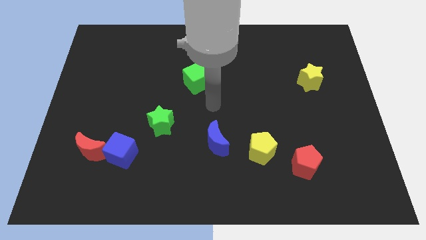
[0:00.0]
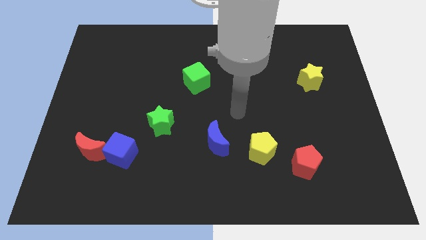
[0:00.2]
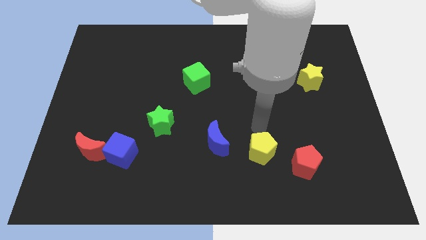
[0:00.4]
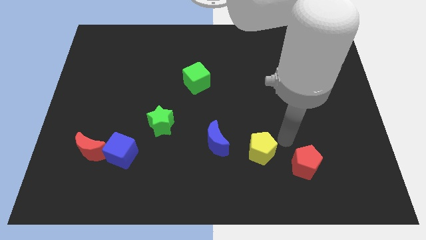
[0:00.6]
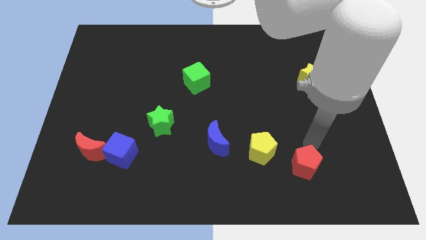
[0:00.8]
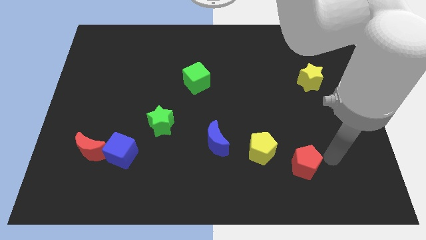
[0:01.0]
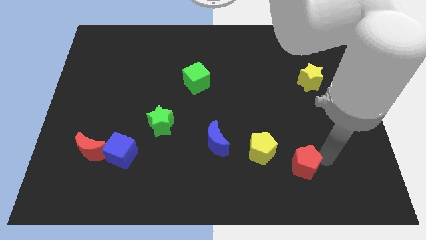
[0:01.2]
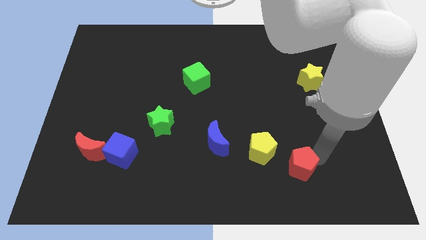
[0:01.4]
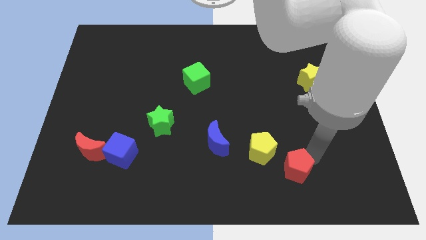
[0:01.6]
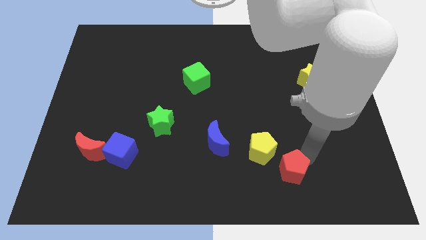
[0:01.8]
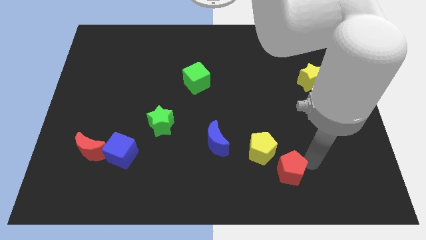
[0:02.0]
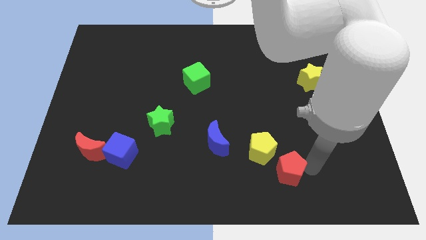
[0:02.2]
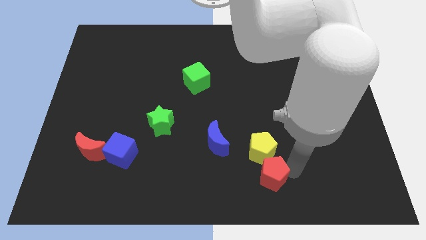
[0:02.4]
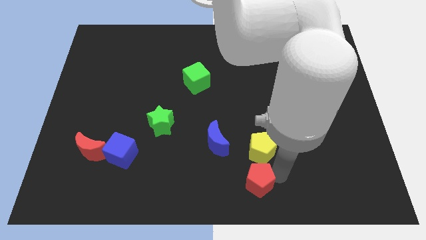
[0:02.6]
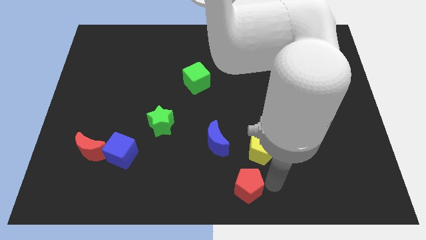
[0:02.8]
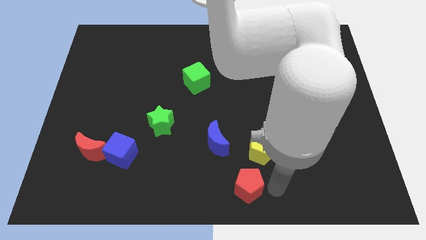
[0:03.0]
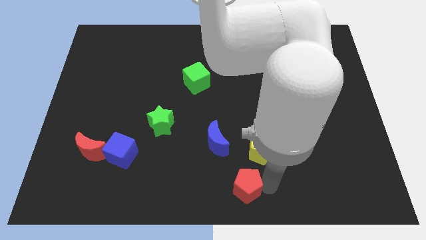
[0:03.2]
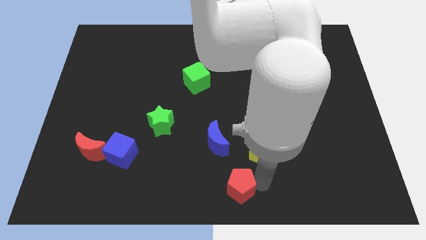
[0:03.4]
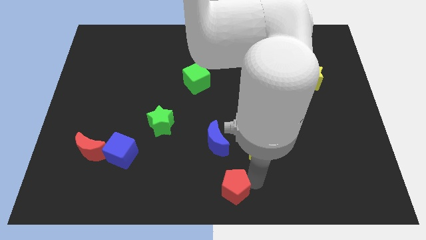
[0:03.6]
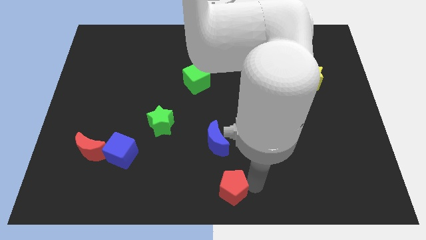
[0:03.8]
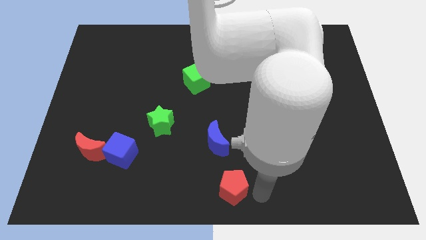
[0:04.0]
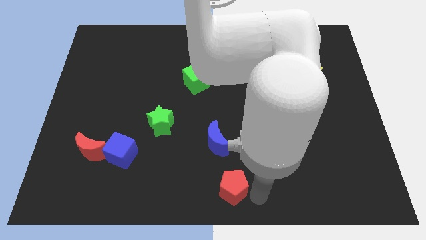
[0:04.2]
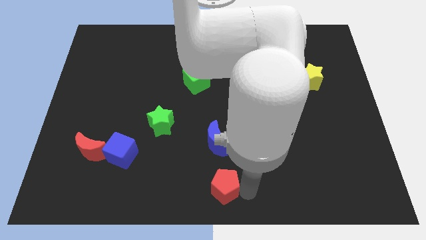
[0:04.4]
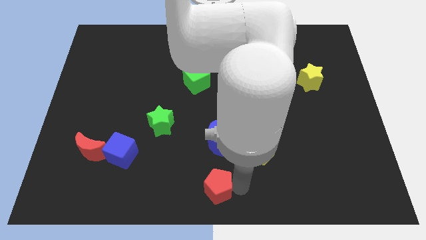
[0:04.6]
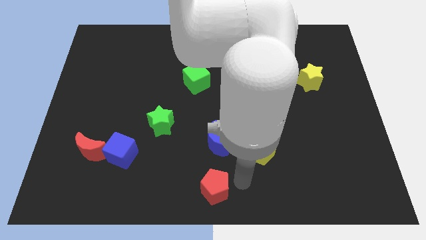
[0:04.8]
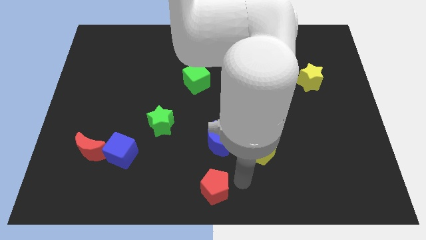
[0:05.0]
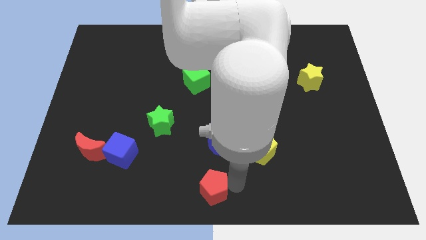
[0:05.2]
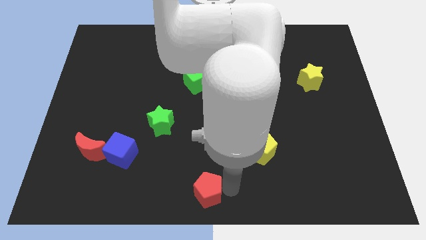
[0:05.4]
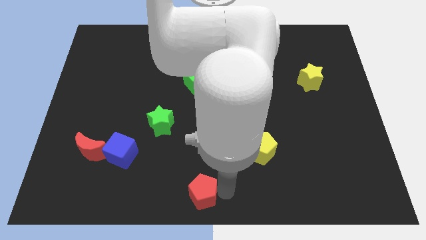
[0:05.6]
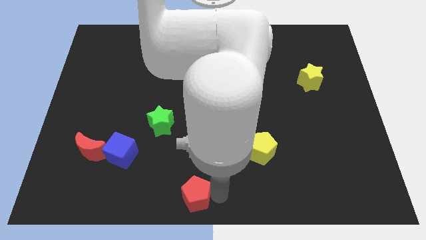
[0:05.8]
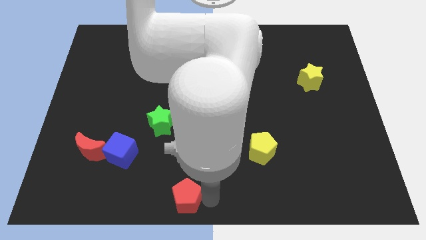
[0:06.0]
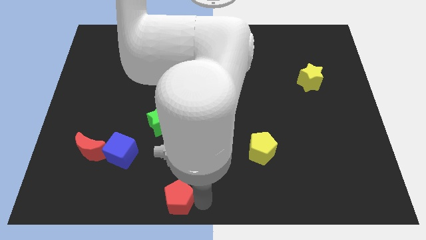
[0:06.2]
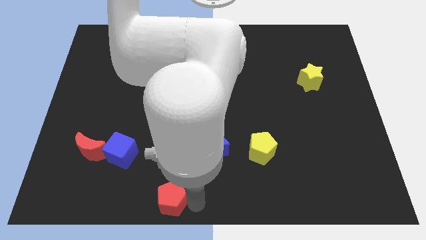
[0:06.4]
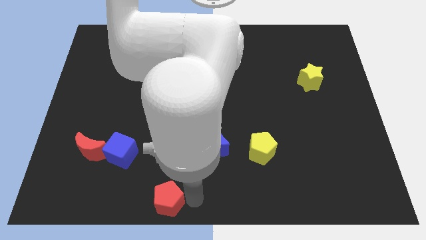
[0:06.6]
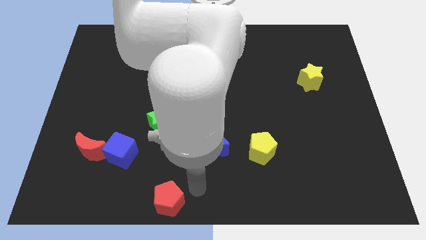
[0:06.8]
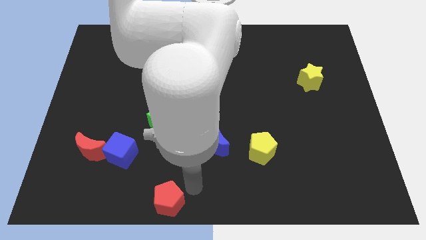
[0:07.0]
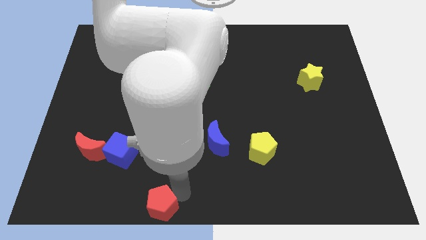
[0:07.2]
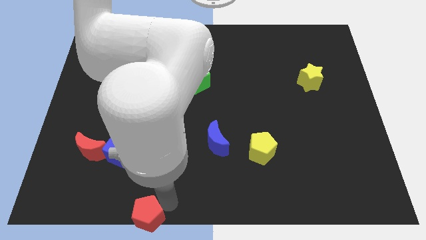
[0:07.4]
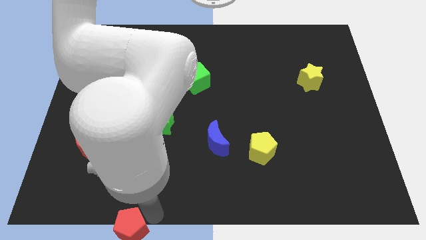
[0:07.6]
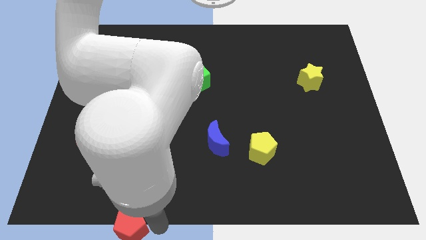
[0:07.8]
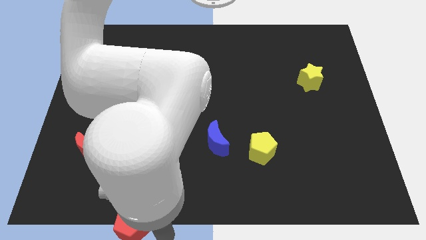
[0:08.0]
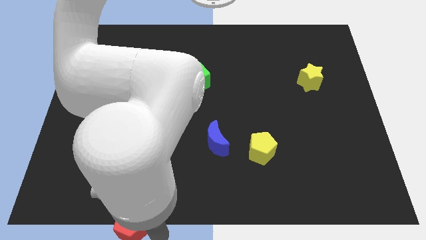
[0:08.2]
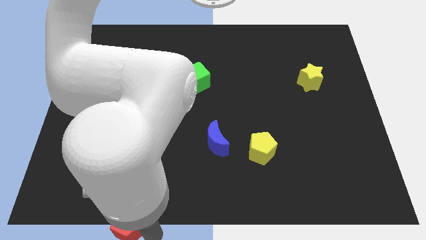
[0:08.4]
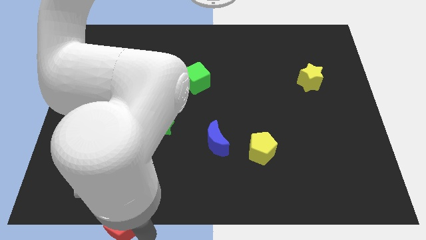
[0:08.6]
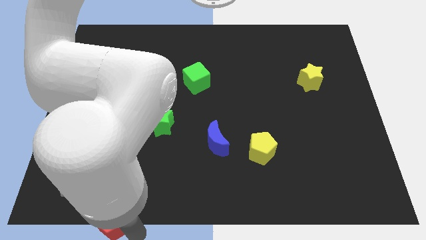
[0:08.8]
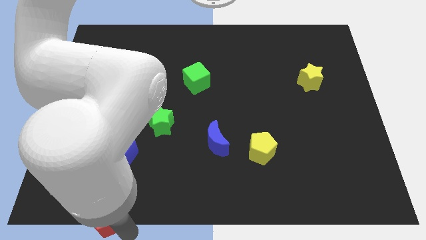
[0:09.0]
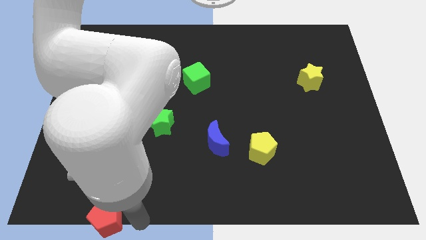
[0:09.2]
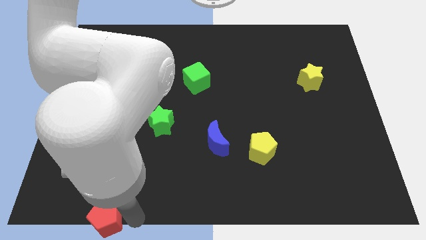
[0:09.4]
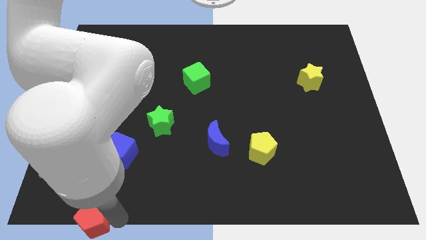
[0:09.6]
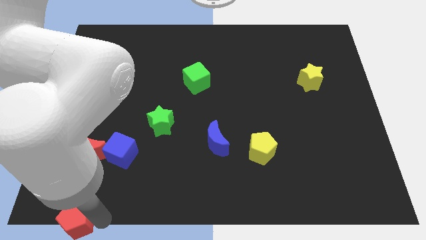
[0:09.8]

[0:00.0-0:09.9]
slide the red pentagon to the bottom left corner

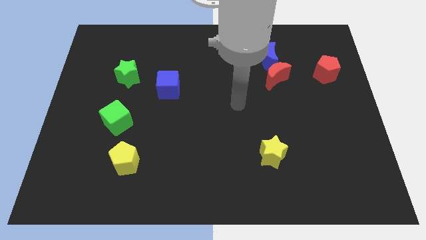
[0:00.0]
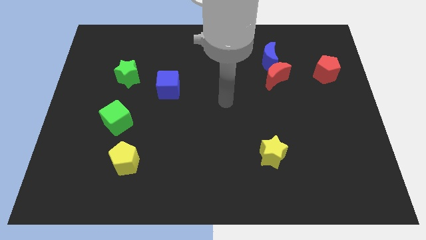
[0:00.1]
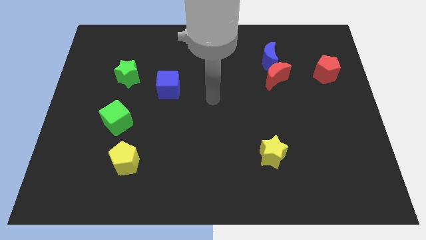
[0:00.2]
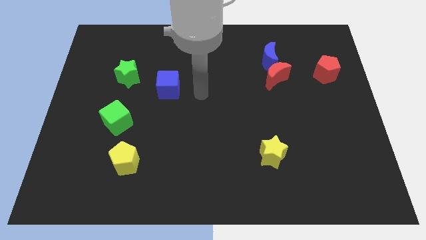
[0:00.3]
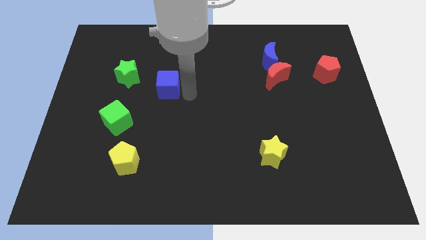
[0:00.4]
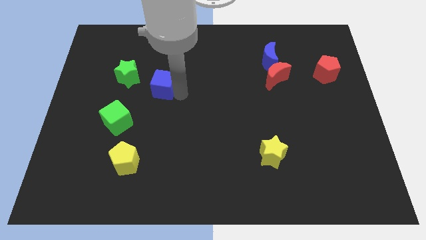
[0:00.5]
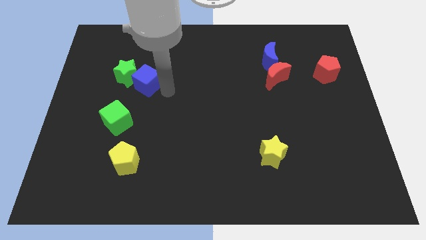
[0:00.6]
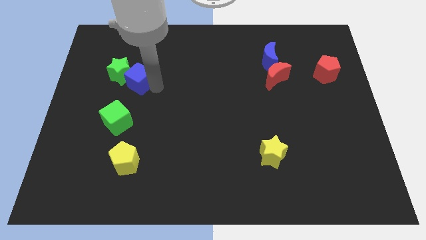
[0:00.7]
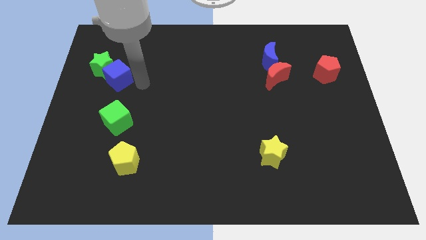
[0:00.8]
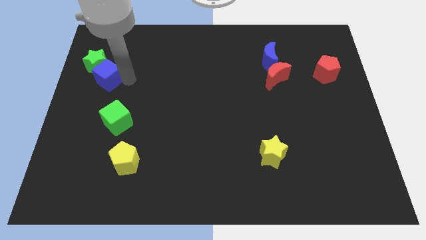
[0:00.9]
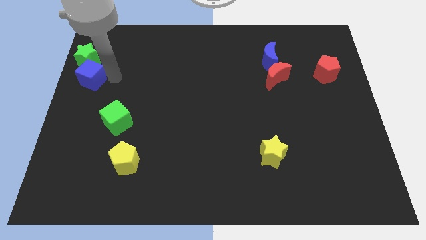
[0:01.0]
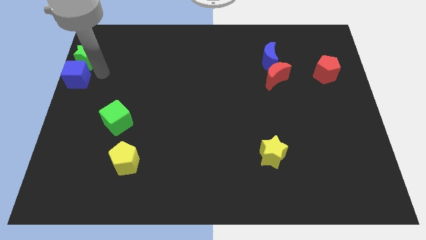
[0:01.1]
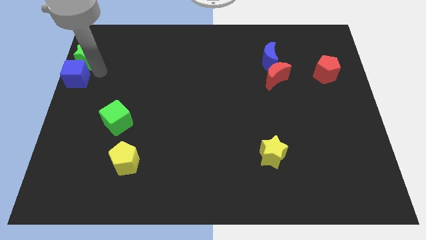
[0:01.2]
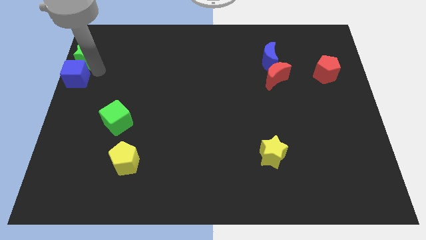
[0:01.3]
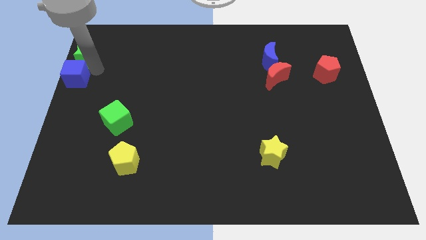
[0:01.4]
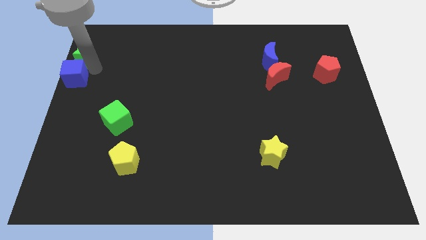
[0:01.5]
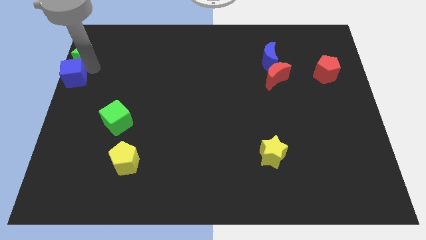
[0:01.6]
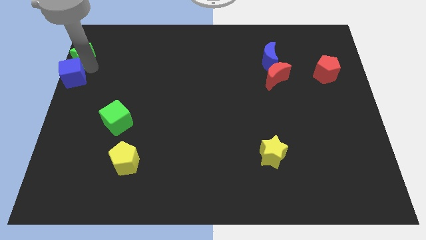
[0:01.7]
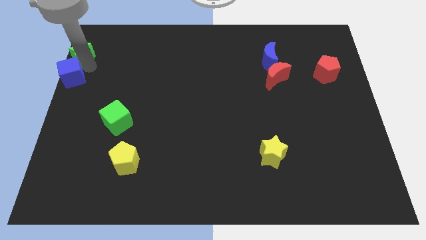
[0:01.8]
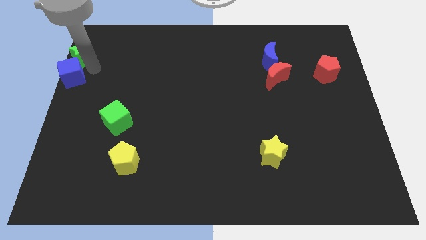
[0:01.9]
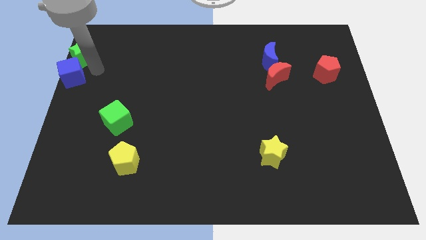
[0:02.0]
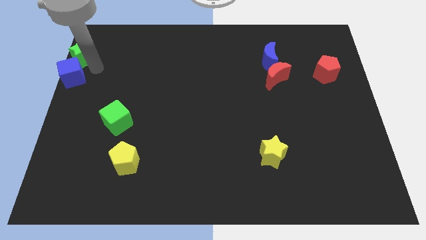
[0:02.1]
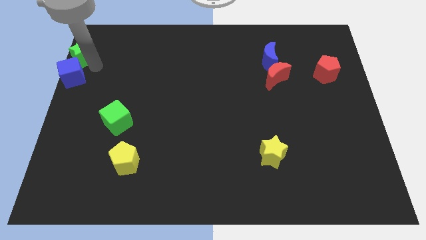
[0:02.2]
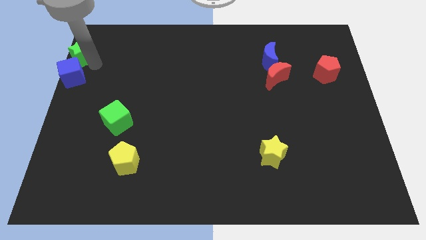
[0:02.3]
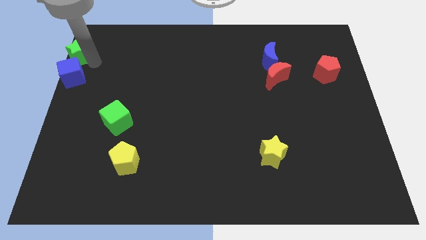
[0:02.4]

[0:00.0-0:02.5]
put the green star to the top left corner
